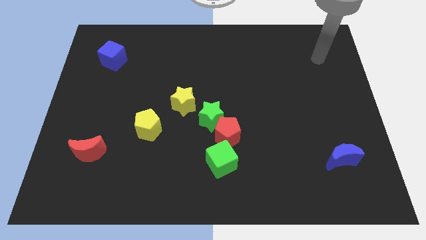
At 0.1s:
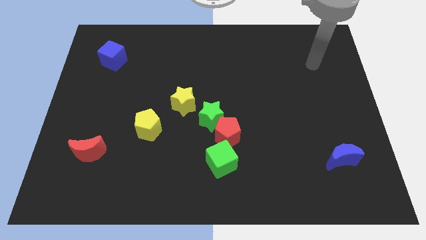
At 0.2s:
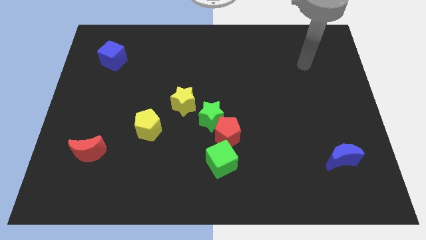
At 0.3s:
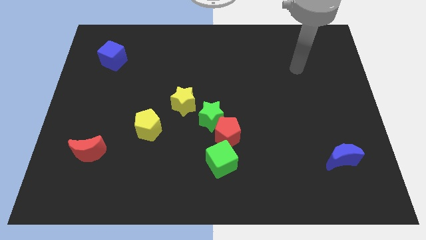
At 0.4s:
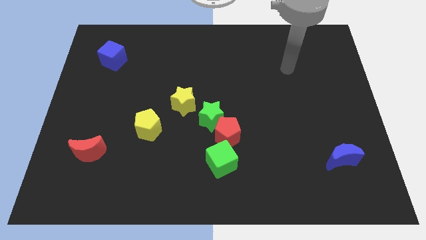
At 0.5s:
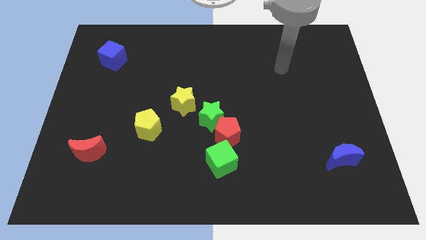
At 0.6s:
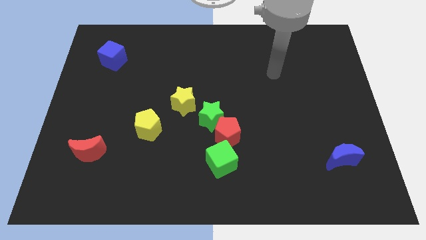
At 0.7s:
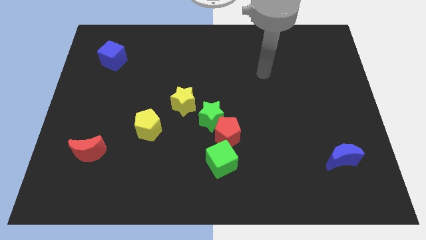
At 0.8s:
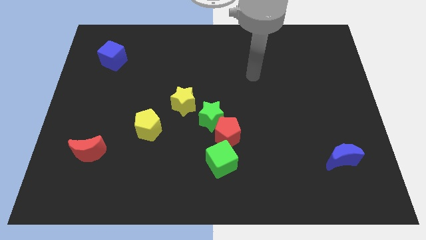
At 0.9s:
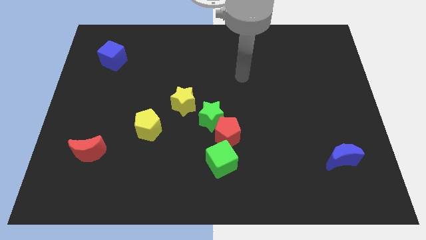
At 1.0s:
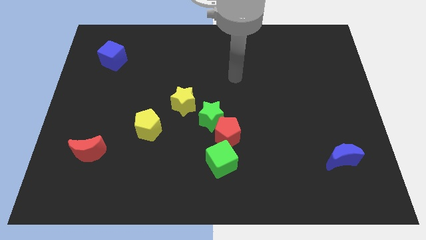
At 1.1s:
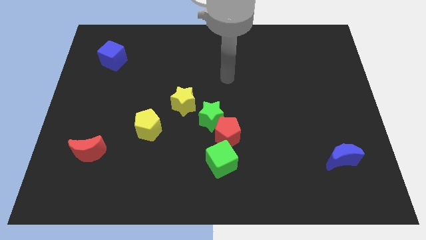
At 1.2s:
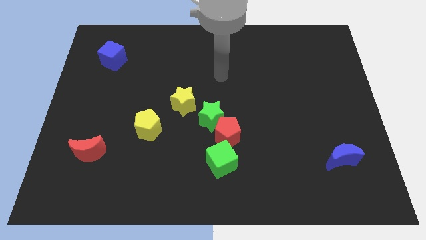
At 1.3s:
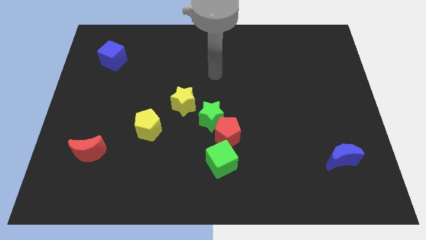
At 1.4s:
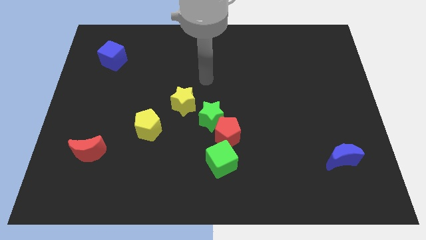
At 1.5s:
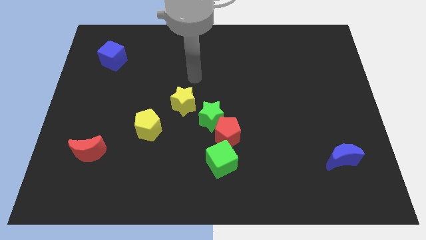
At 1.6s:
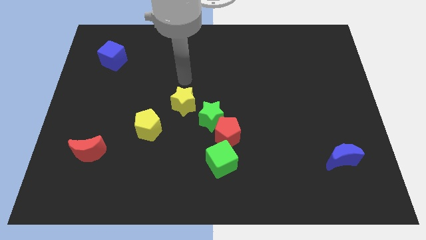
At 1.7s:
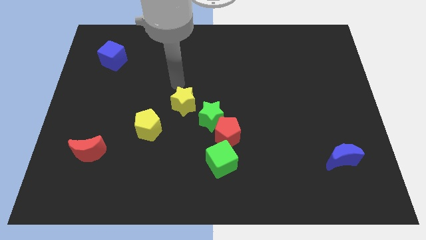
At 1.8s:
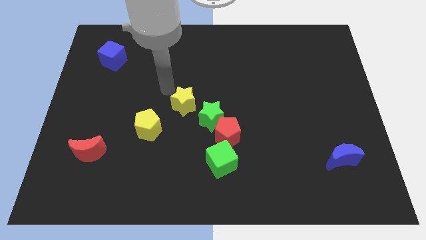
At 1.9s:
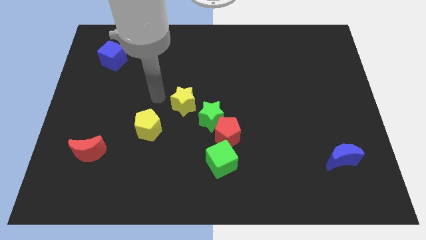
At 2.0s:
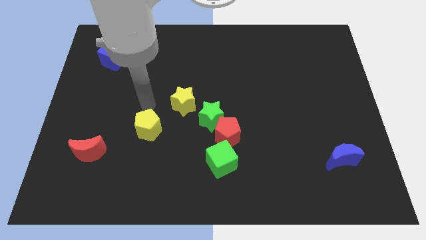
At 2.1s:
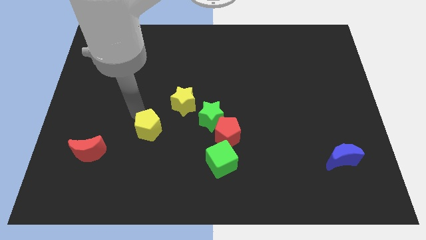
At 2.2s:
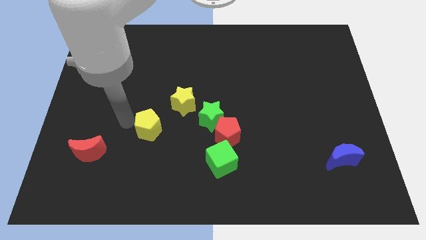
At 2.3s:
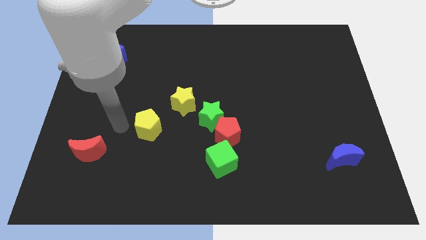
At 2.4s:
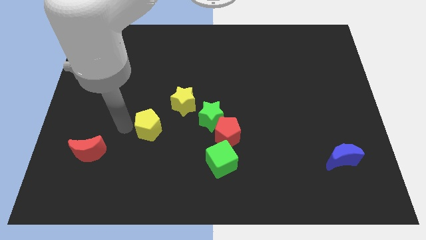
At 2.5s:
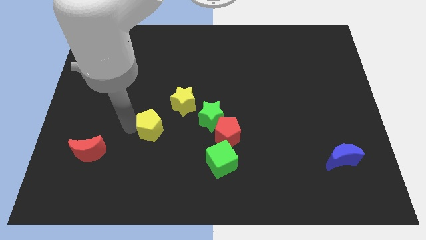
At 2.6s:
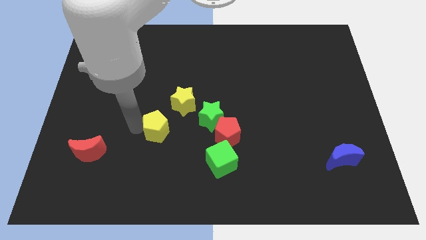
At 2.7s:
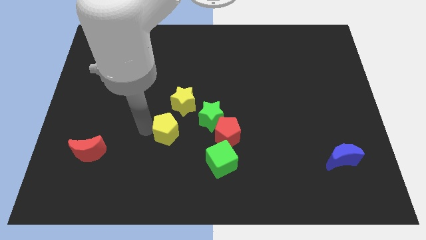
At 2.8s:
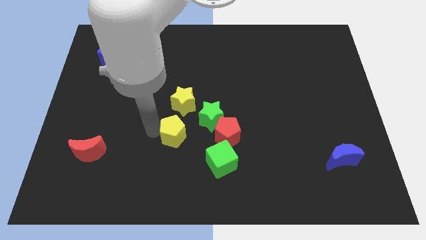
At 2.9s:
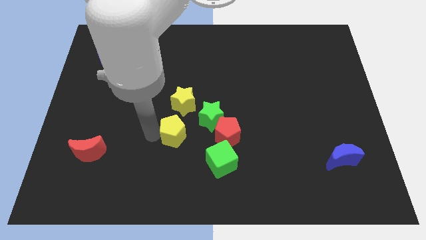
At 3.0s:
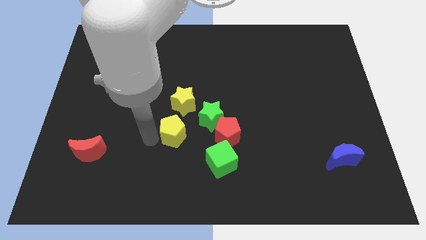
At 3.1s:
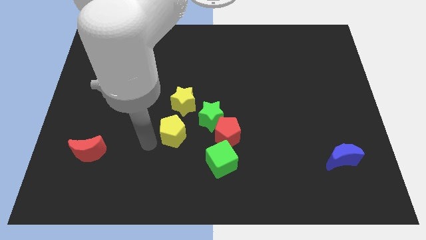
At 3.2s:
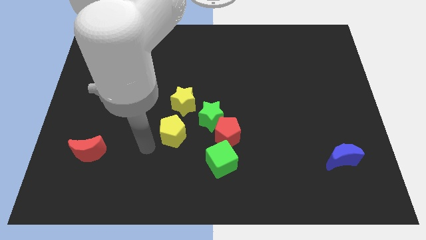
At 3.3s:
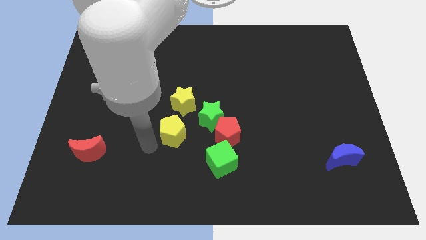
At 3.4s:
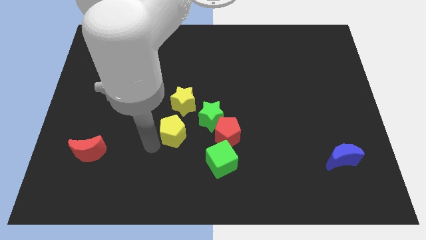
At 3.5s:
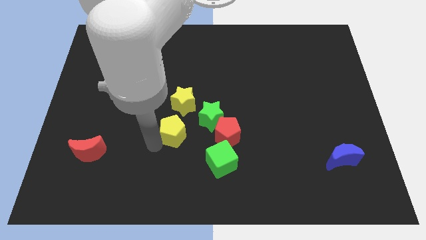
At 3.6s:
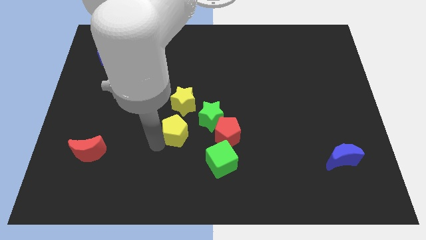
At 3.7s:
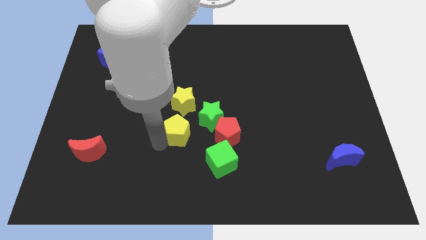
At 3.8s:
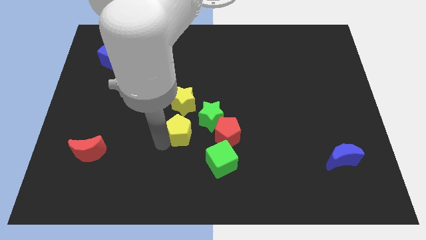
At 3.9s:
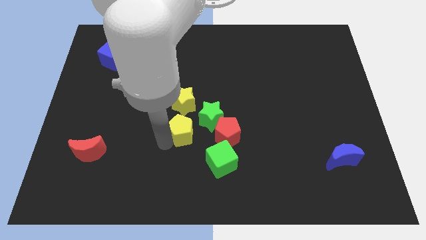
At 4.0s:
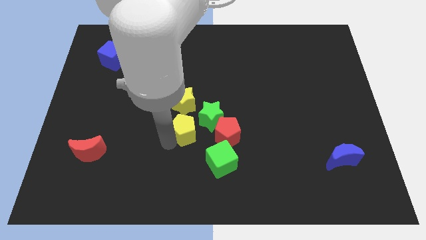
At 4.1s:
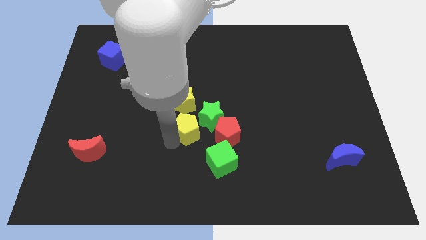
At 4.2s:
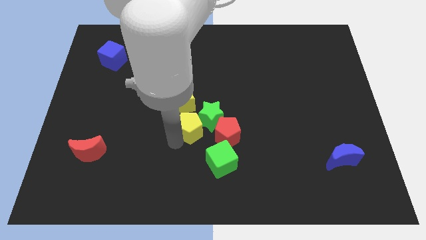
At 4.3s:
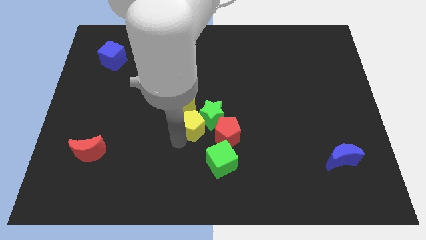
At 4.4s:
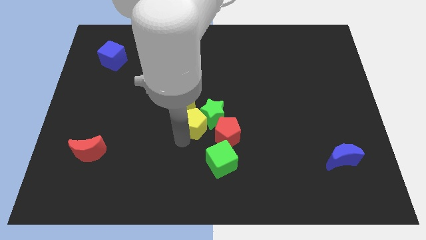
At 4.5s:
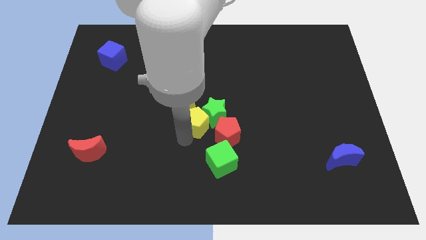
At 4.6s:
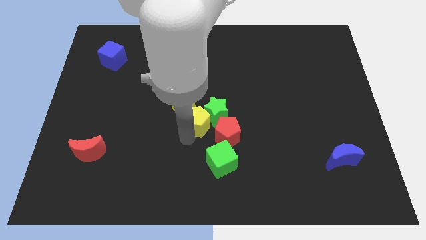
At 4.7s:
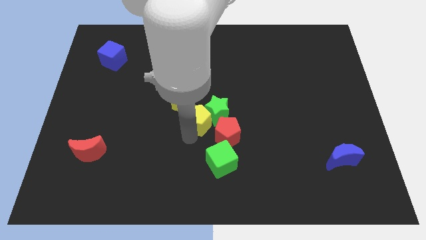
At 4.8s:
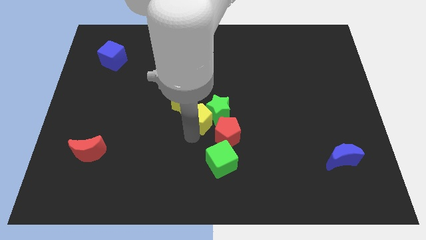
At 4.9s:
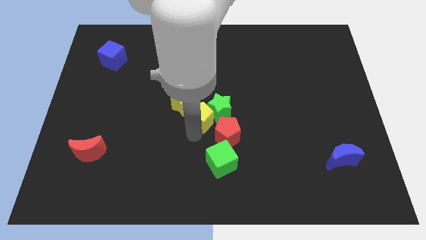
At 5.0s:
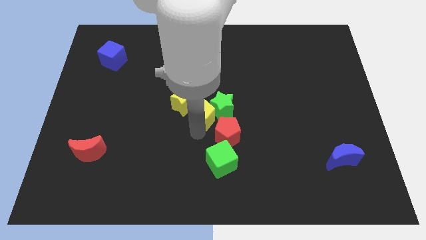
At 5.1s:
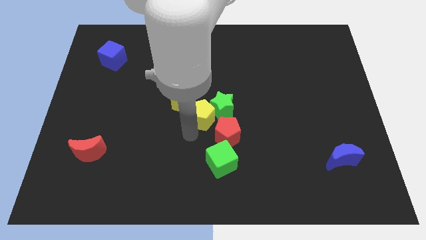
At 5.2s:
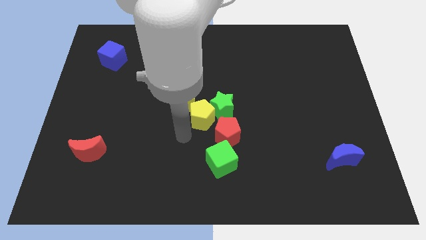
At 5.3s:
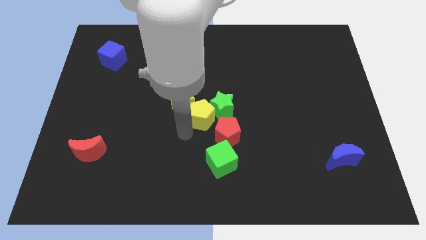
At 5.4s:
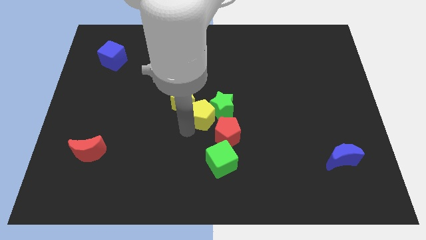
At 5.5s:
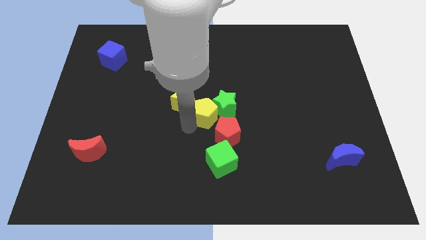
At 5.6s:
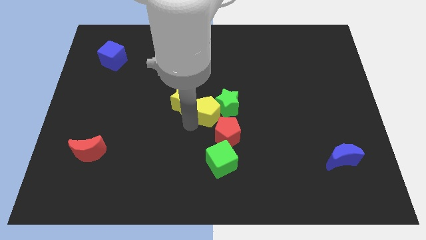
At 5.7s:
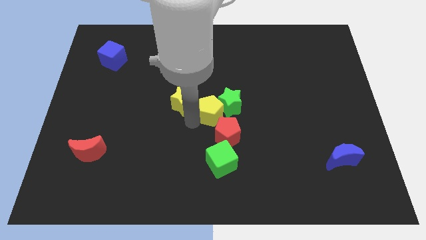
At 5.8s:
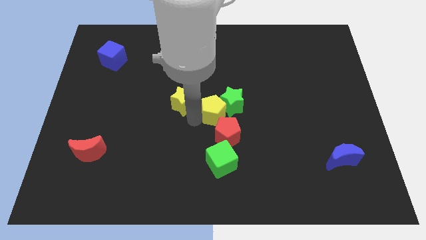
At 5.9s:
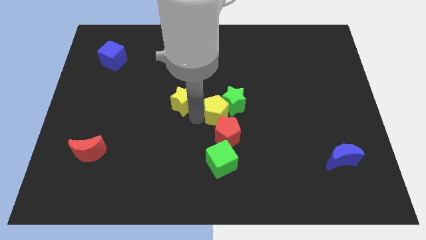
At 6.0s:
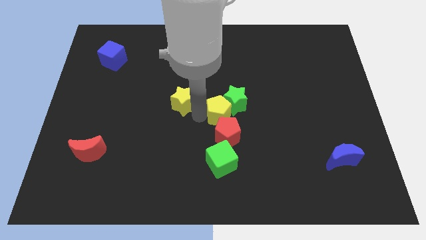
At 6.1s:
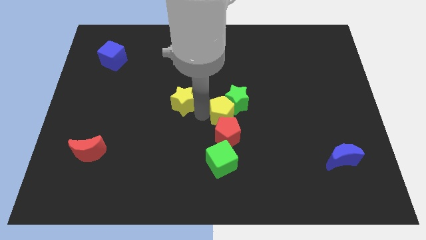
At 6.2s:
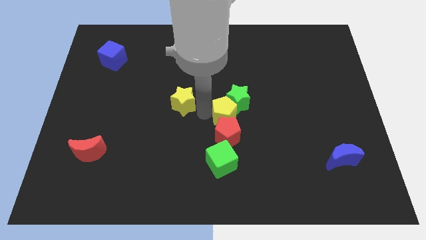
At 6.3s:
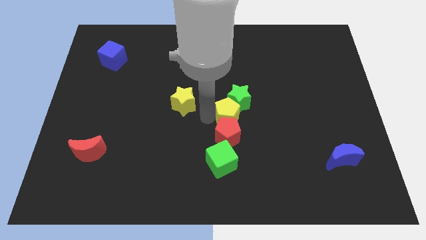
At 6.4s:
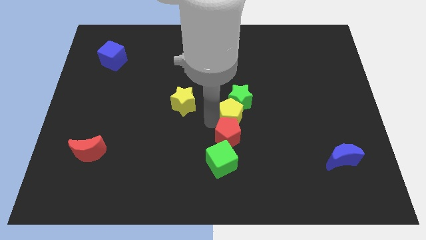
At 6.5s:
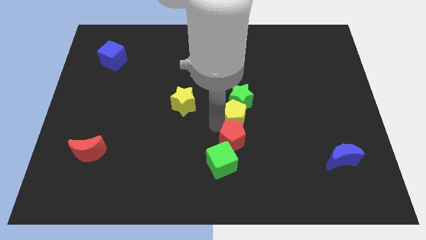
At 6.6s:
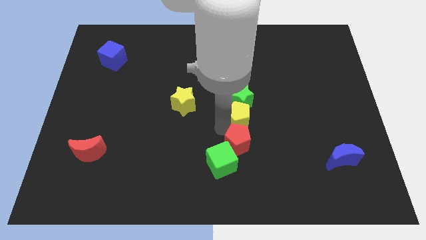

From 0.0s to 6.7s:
push the yellow pentagon to the right

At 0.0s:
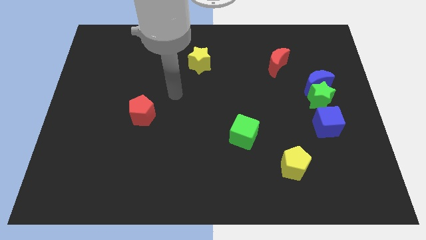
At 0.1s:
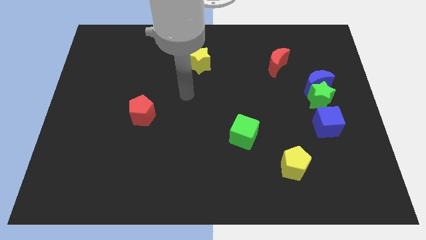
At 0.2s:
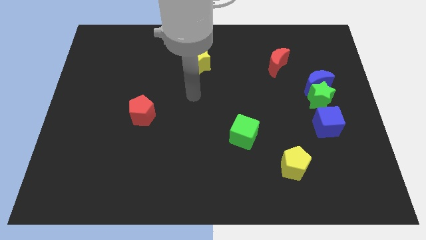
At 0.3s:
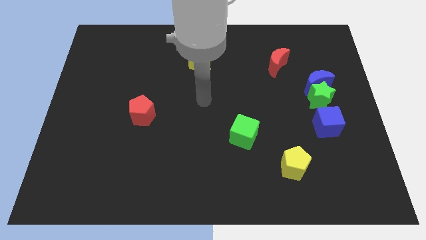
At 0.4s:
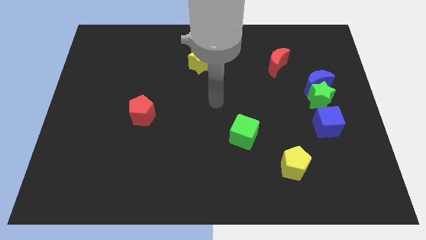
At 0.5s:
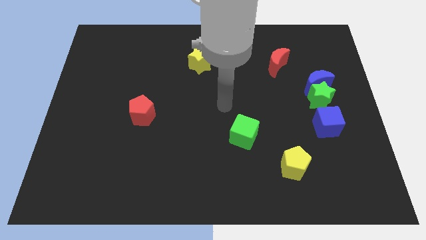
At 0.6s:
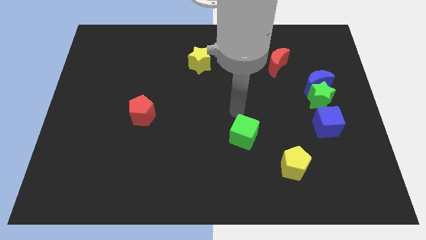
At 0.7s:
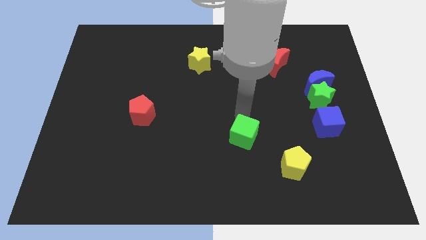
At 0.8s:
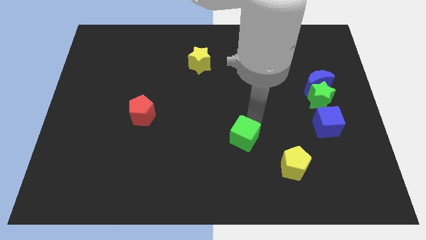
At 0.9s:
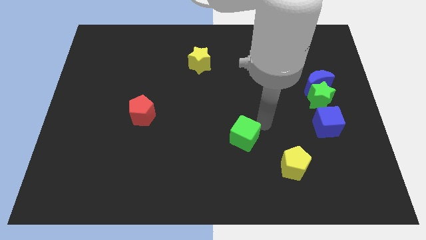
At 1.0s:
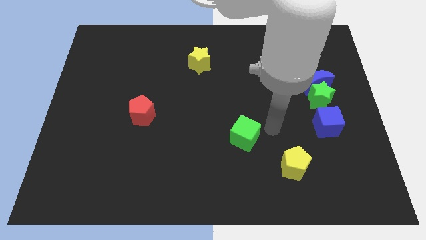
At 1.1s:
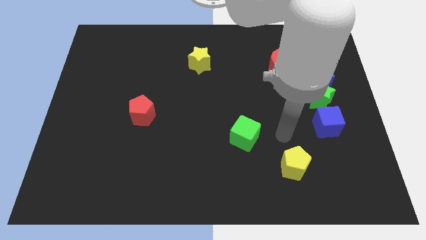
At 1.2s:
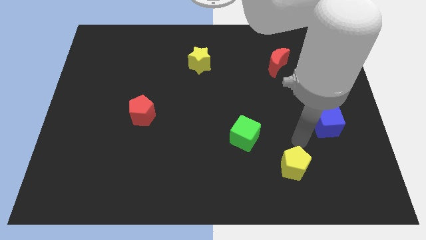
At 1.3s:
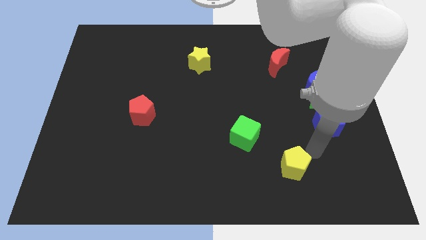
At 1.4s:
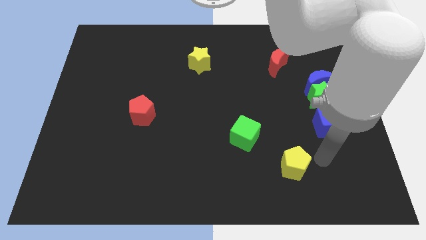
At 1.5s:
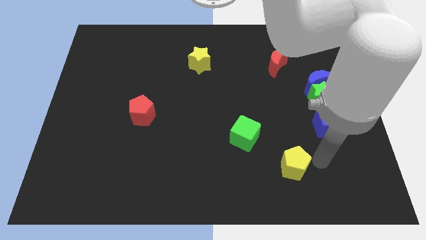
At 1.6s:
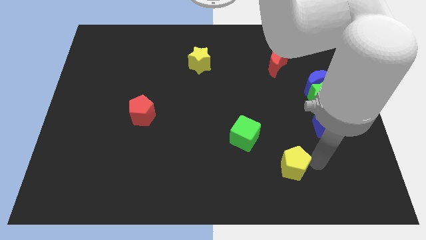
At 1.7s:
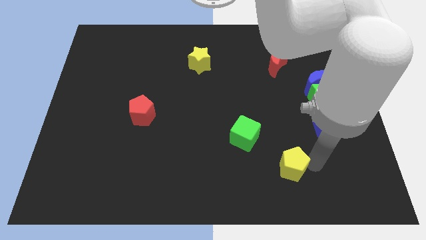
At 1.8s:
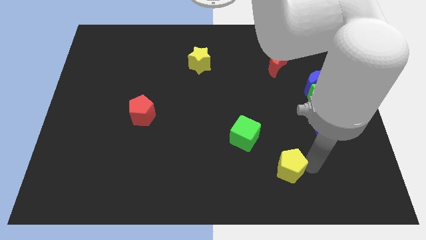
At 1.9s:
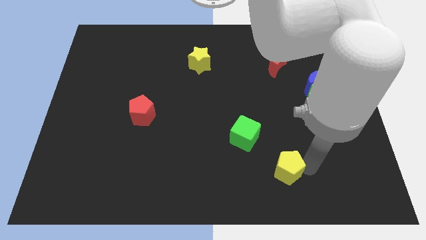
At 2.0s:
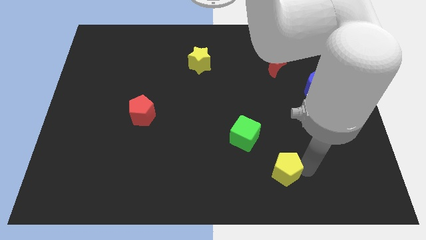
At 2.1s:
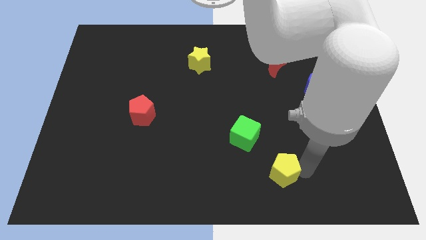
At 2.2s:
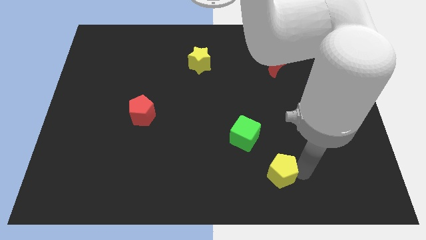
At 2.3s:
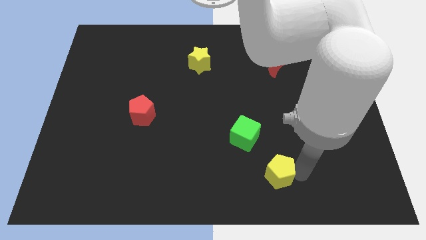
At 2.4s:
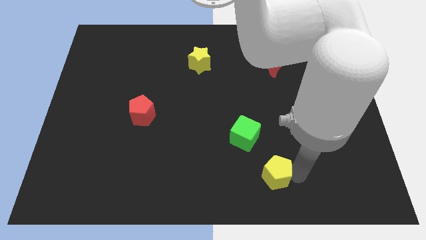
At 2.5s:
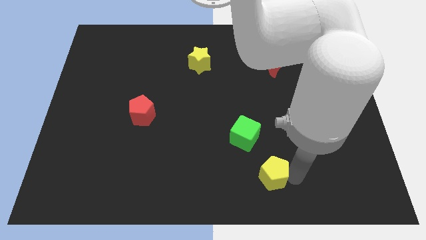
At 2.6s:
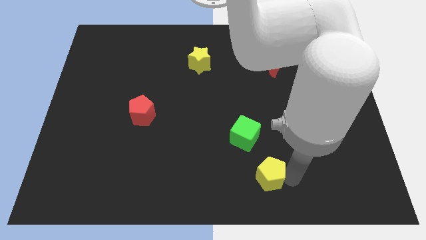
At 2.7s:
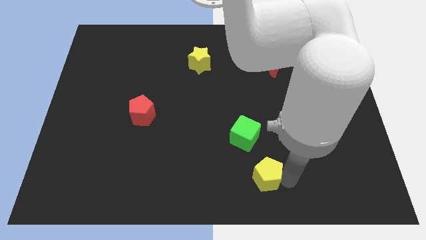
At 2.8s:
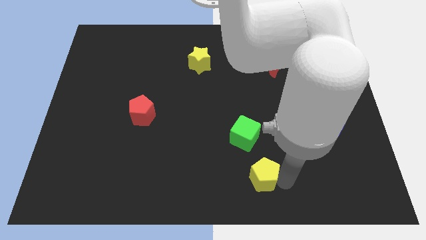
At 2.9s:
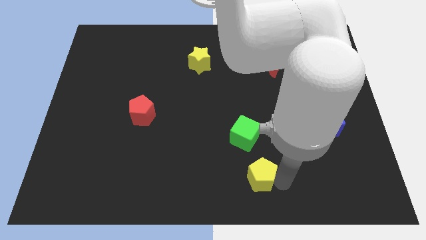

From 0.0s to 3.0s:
slide the yellow pentagon to the left somewhat
